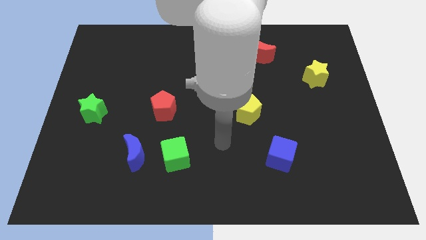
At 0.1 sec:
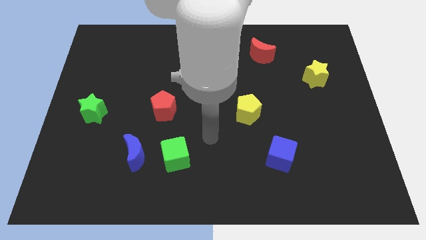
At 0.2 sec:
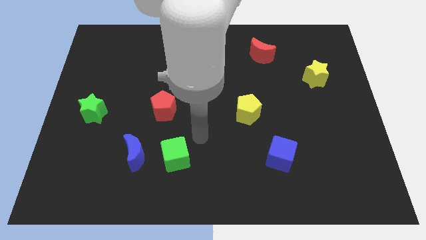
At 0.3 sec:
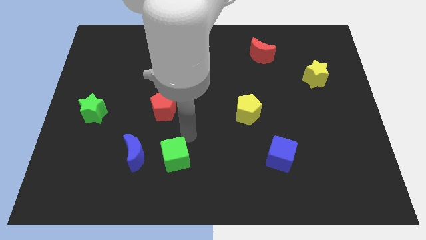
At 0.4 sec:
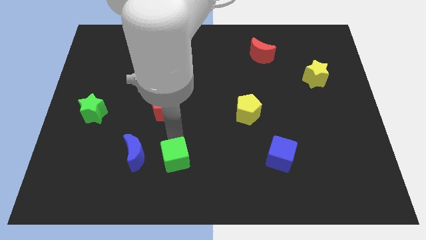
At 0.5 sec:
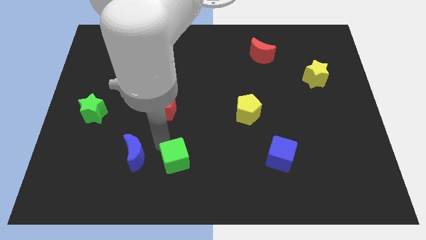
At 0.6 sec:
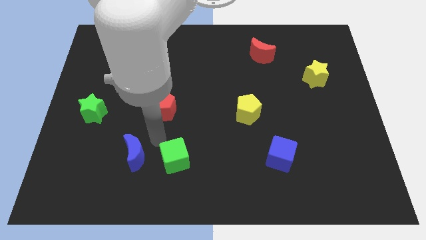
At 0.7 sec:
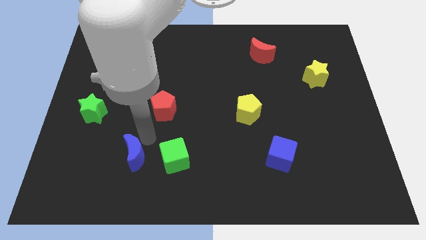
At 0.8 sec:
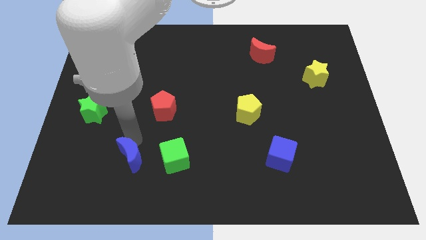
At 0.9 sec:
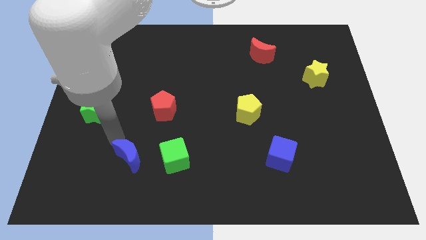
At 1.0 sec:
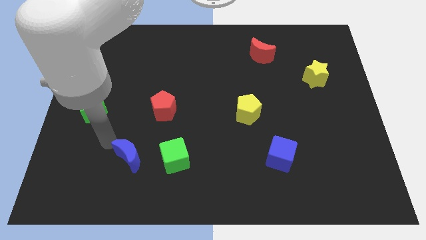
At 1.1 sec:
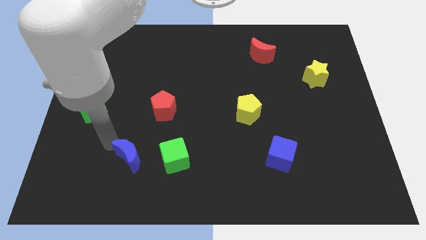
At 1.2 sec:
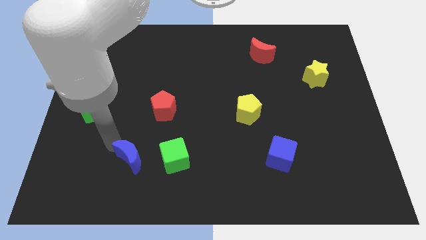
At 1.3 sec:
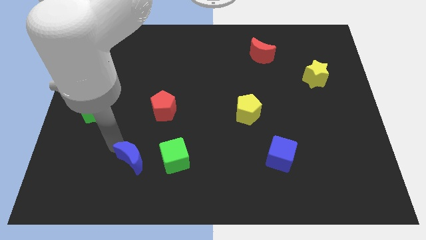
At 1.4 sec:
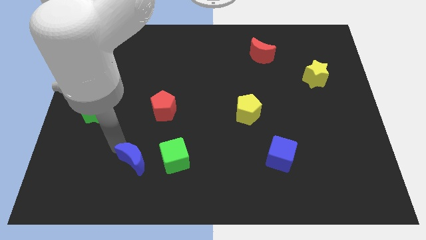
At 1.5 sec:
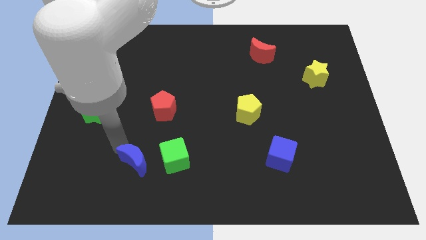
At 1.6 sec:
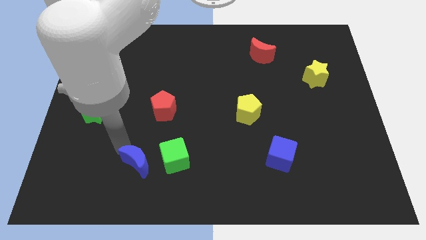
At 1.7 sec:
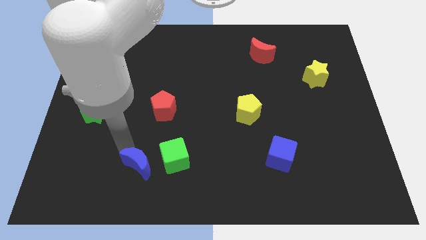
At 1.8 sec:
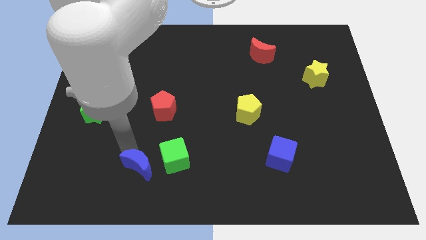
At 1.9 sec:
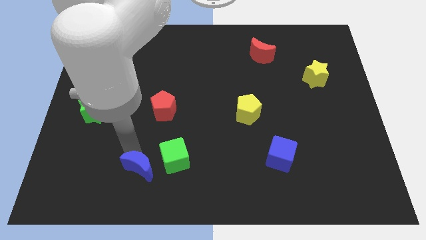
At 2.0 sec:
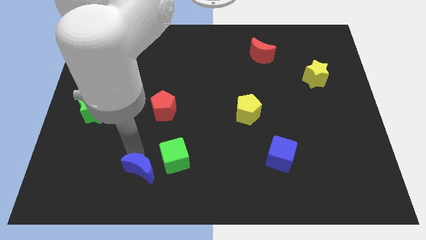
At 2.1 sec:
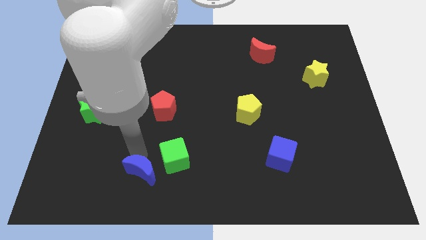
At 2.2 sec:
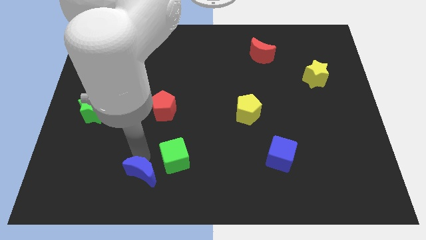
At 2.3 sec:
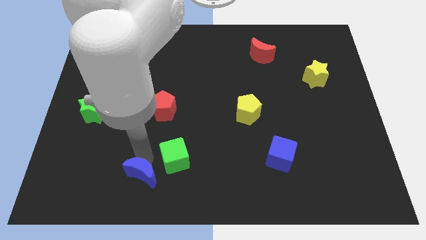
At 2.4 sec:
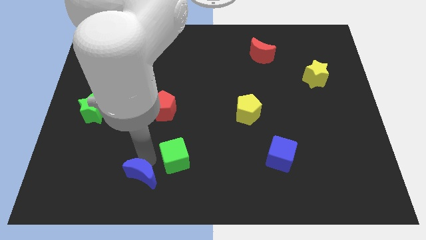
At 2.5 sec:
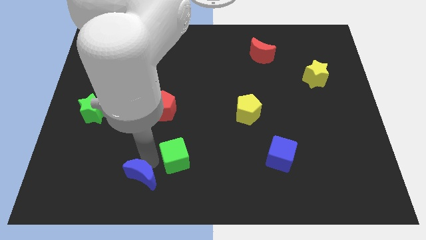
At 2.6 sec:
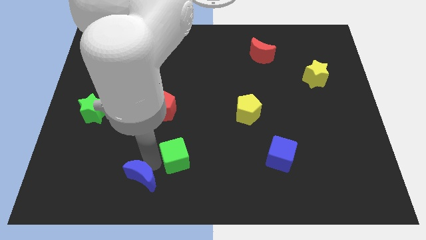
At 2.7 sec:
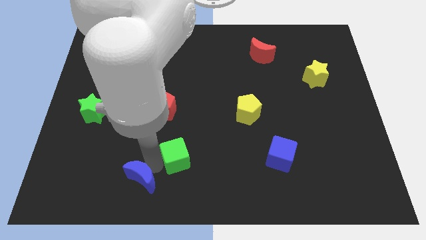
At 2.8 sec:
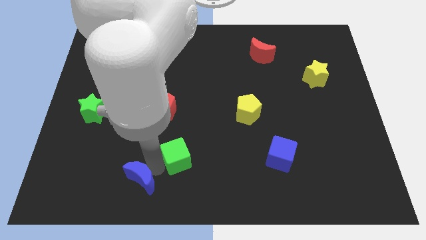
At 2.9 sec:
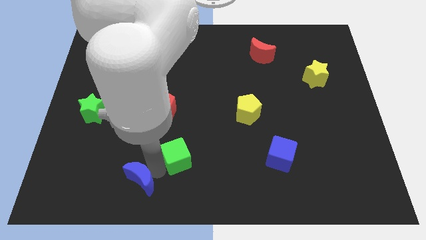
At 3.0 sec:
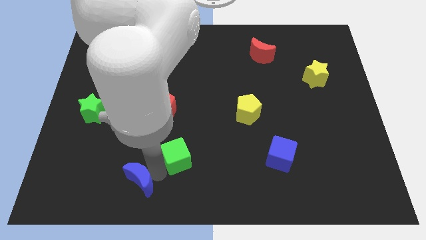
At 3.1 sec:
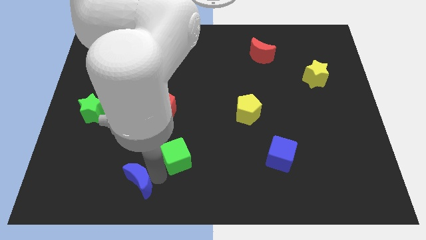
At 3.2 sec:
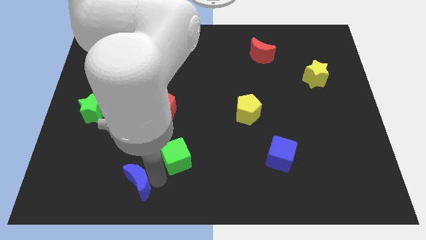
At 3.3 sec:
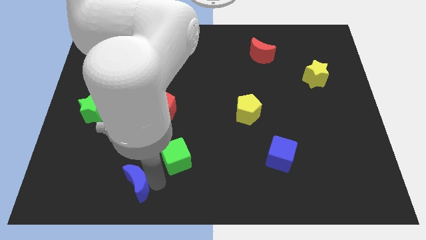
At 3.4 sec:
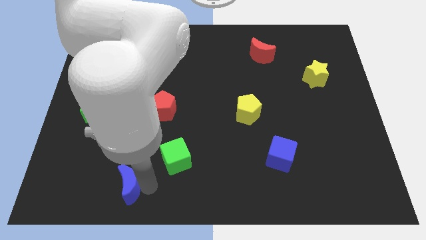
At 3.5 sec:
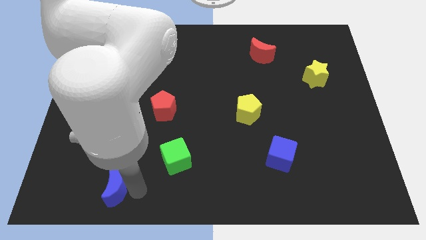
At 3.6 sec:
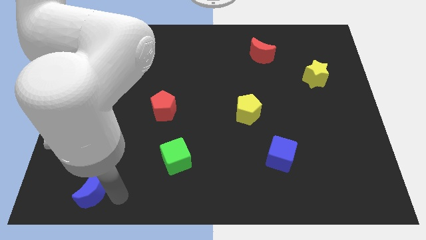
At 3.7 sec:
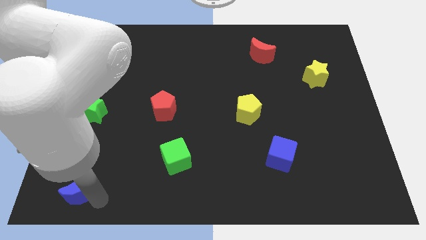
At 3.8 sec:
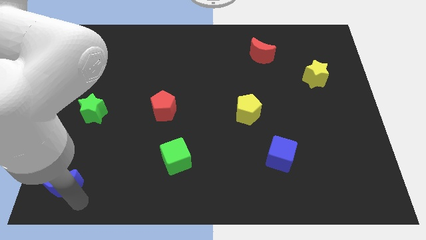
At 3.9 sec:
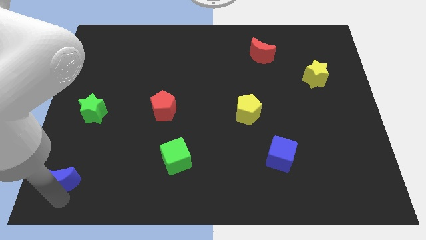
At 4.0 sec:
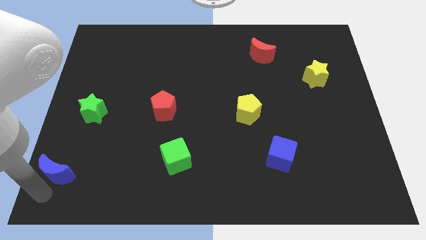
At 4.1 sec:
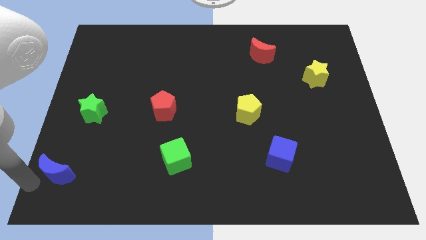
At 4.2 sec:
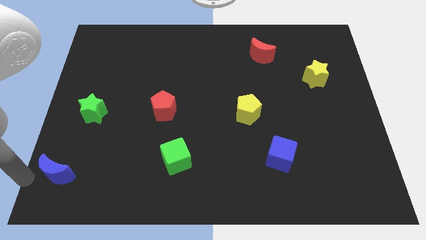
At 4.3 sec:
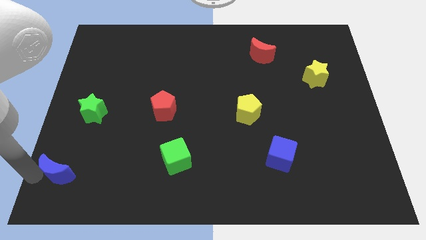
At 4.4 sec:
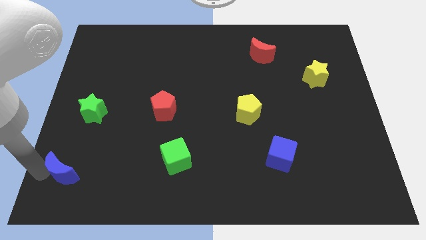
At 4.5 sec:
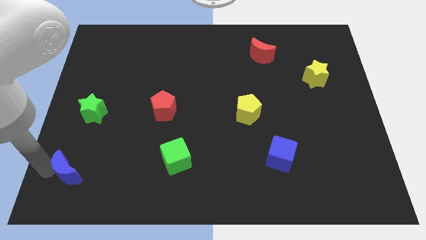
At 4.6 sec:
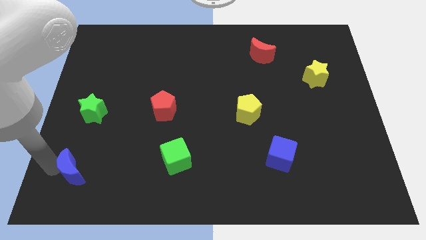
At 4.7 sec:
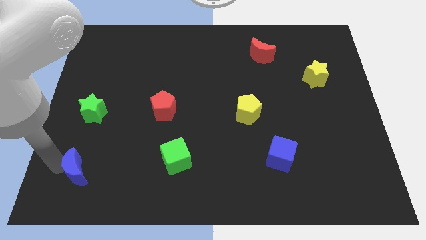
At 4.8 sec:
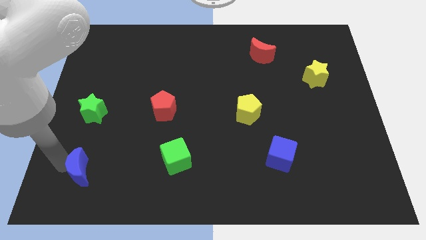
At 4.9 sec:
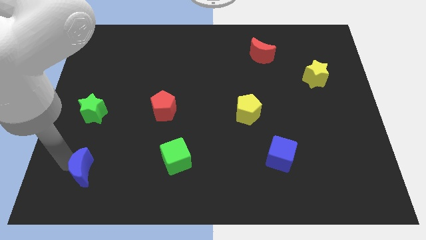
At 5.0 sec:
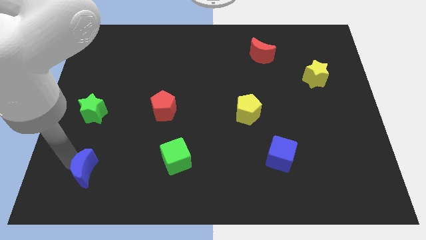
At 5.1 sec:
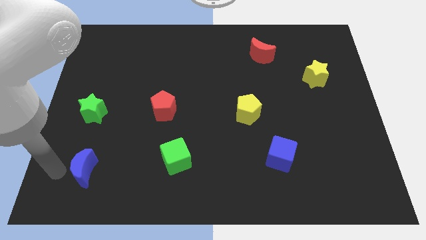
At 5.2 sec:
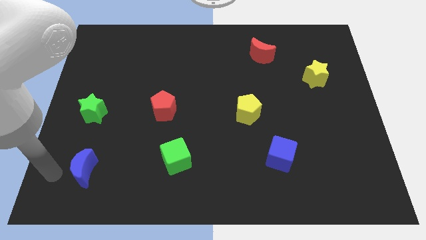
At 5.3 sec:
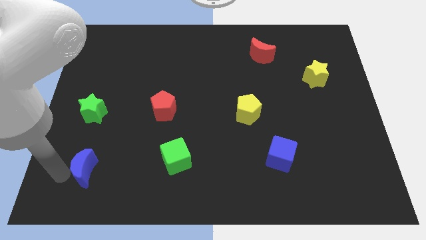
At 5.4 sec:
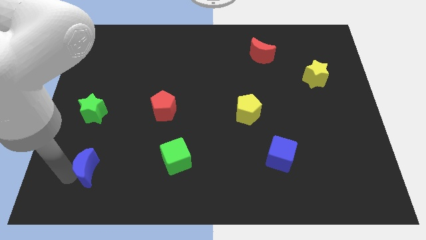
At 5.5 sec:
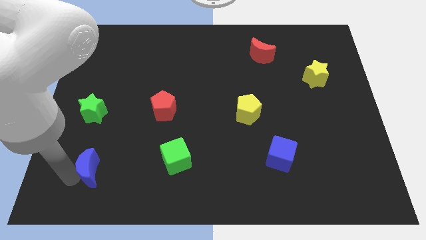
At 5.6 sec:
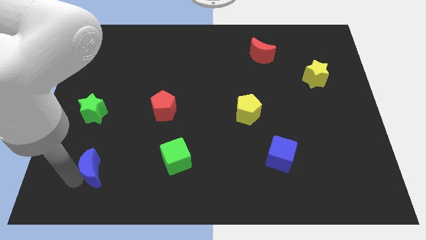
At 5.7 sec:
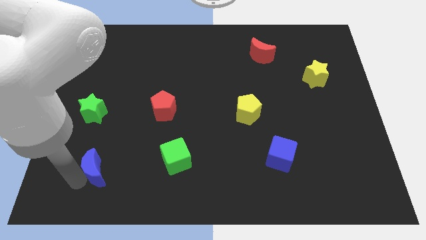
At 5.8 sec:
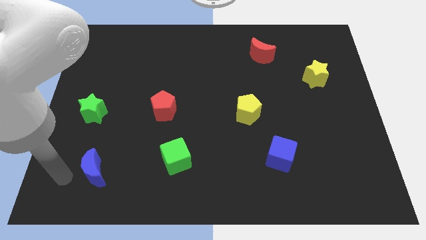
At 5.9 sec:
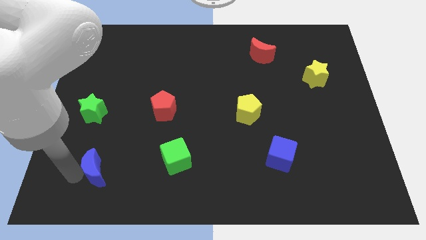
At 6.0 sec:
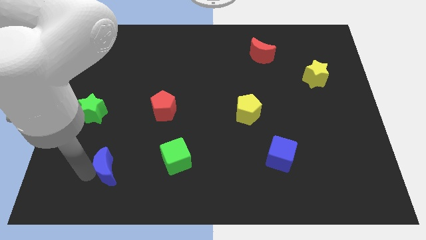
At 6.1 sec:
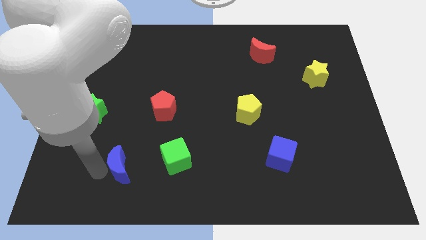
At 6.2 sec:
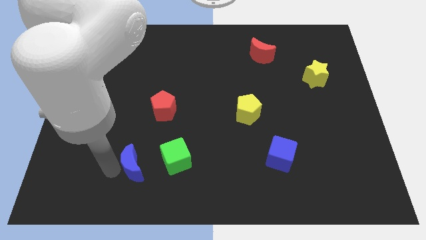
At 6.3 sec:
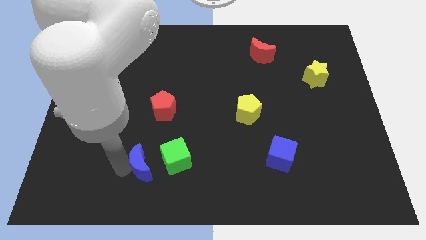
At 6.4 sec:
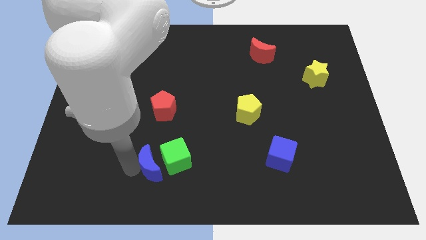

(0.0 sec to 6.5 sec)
move the blue moon towards the green cube
